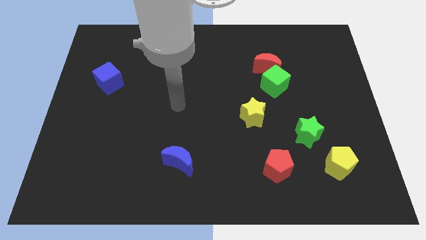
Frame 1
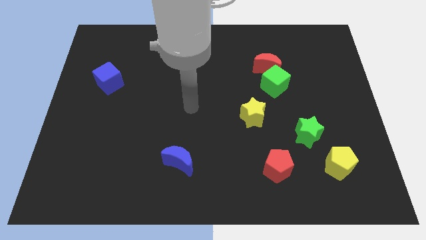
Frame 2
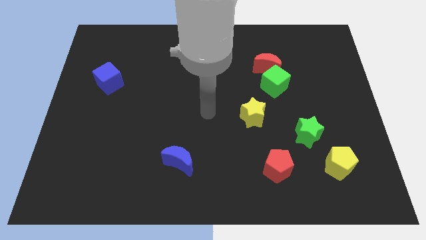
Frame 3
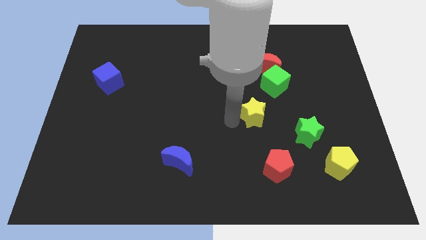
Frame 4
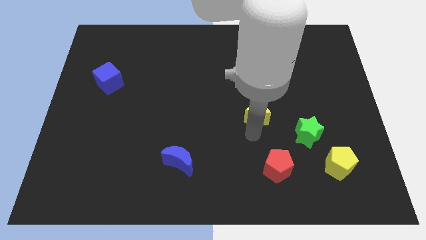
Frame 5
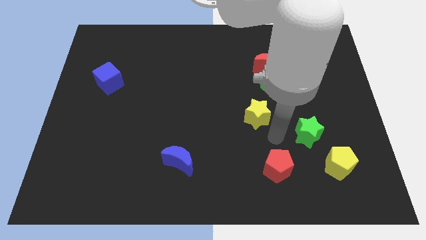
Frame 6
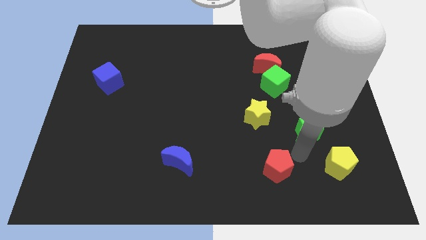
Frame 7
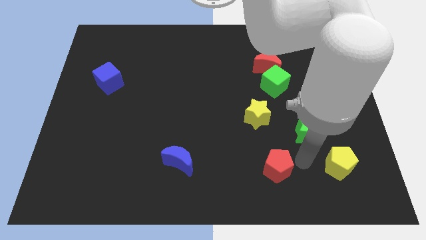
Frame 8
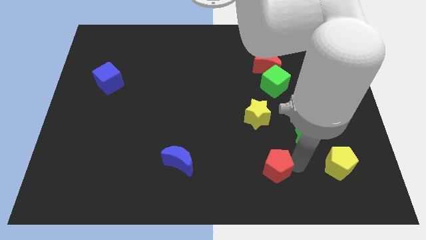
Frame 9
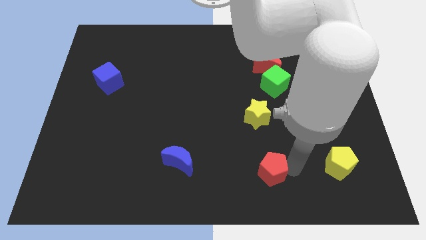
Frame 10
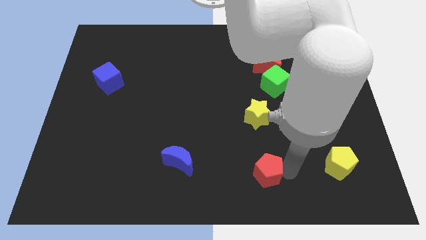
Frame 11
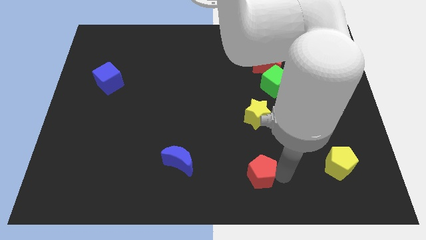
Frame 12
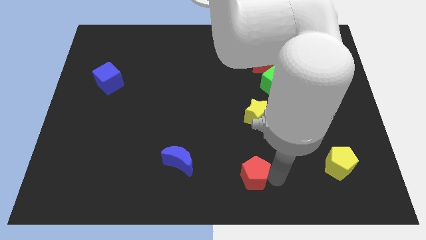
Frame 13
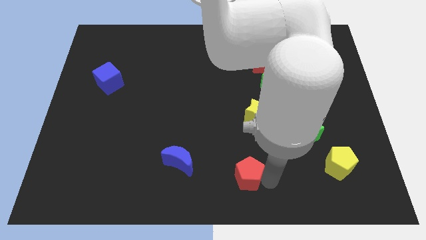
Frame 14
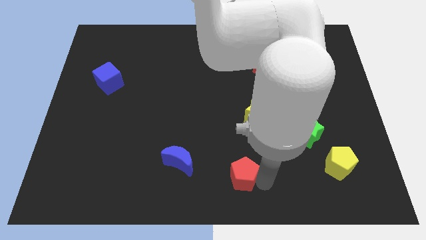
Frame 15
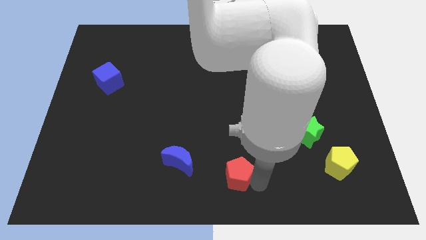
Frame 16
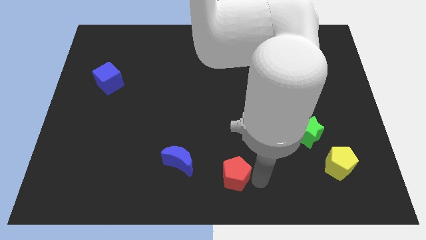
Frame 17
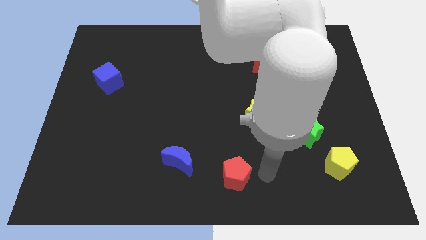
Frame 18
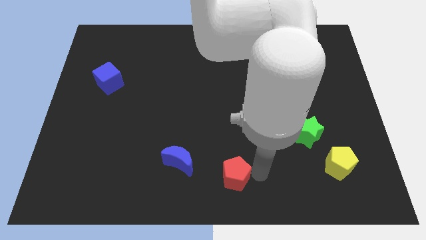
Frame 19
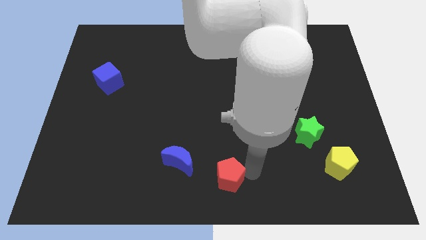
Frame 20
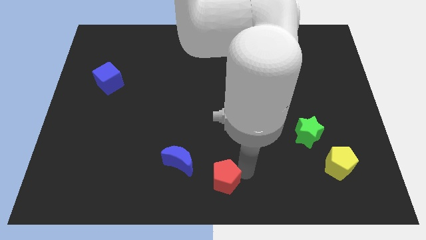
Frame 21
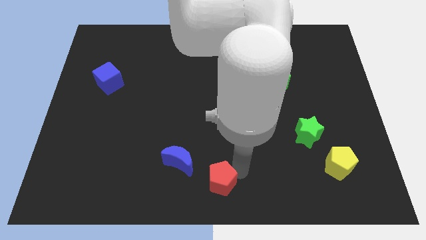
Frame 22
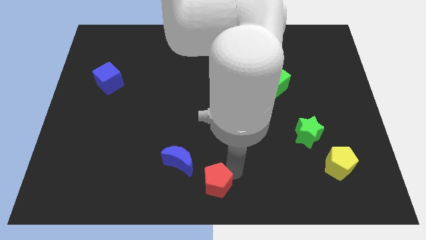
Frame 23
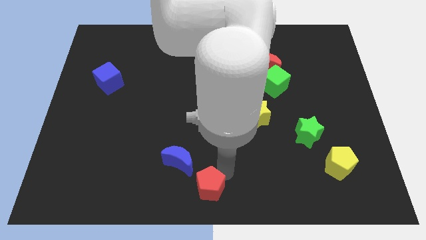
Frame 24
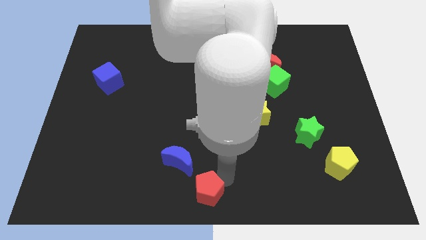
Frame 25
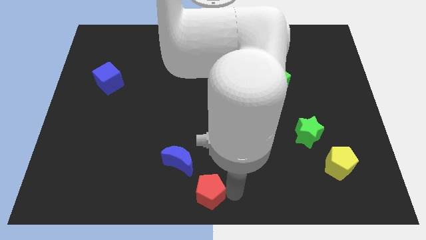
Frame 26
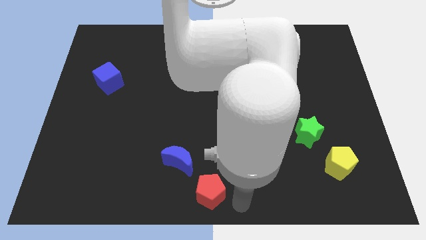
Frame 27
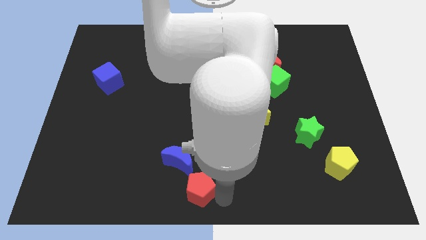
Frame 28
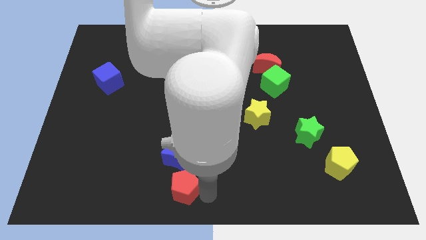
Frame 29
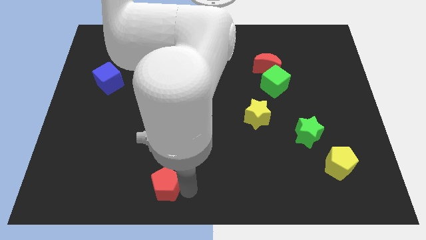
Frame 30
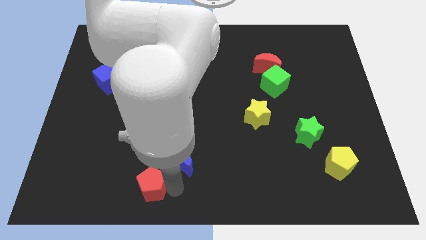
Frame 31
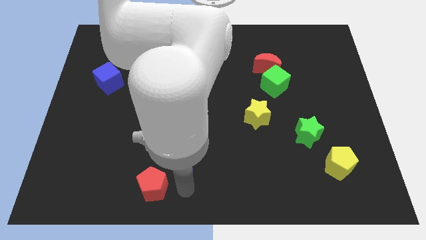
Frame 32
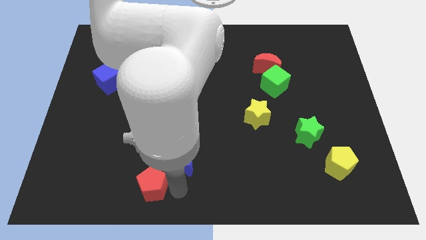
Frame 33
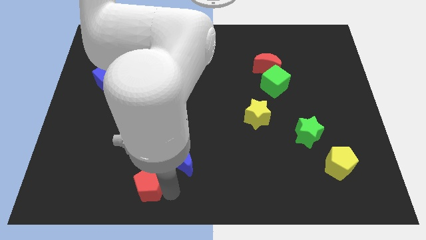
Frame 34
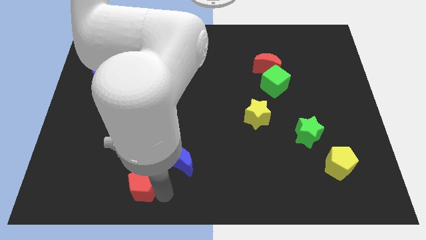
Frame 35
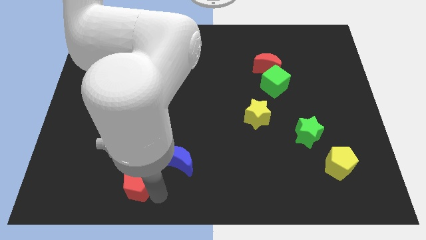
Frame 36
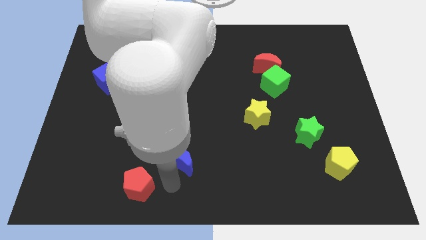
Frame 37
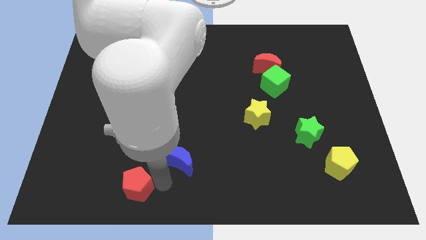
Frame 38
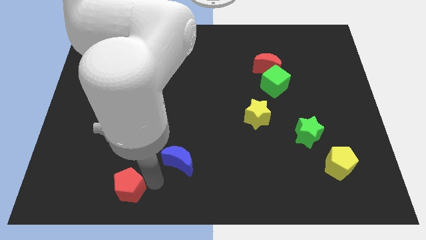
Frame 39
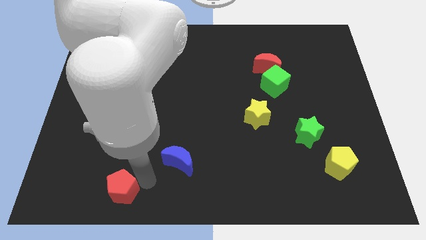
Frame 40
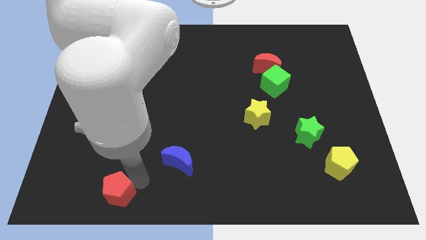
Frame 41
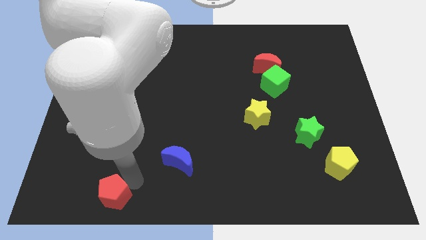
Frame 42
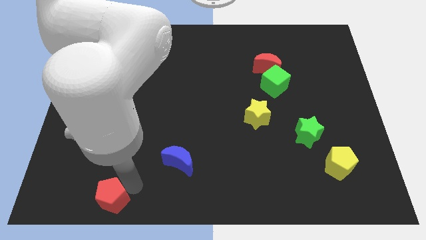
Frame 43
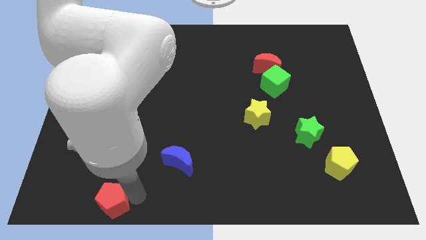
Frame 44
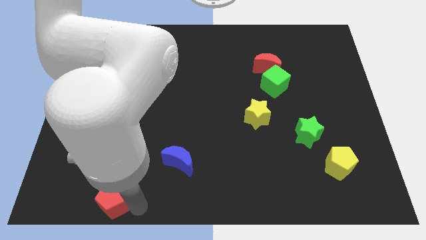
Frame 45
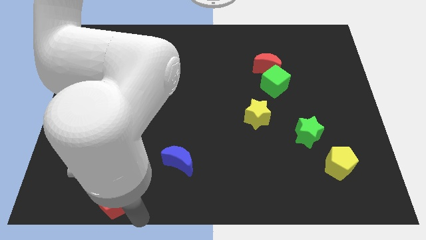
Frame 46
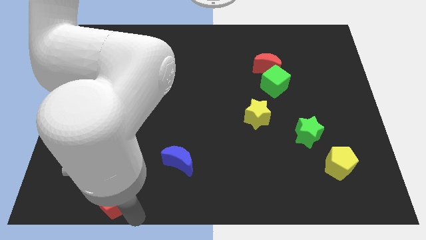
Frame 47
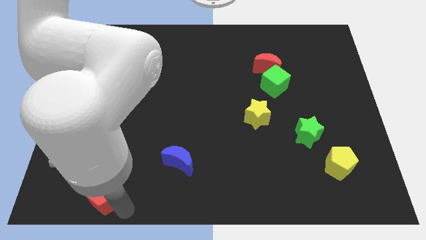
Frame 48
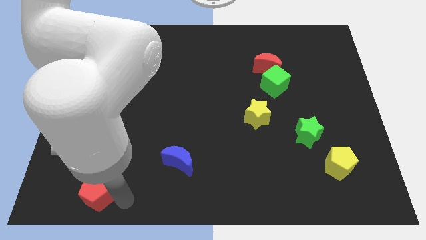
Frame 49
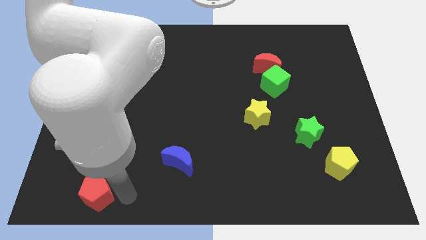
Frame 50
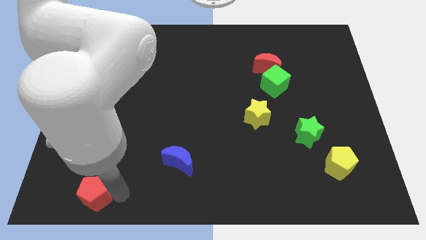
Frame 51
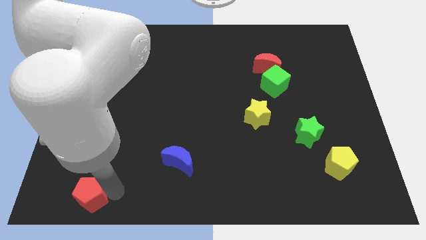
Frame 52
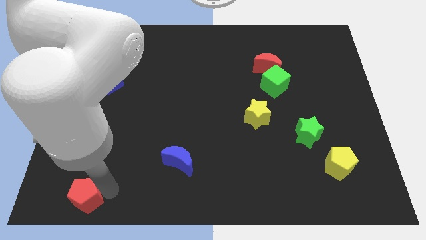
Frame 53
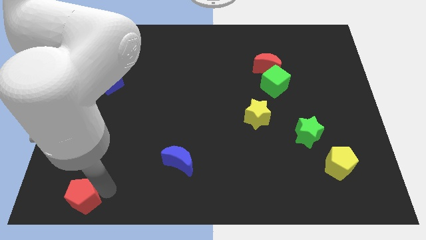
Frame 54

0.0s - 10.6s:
push the red pentagon to the bottom left

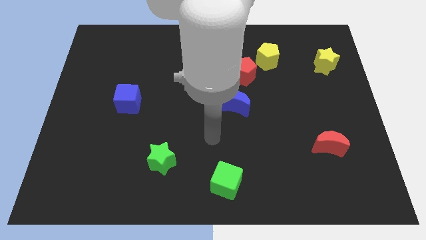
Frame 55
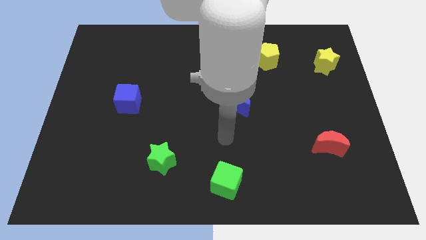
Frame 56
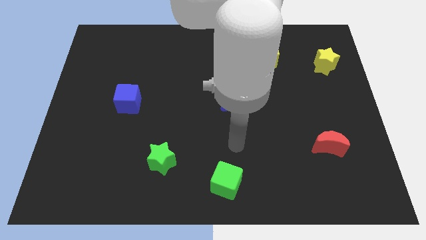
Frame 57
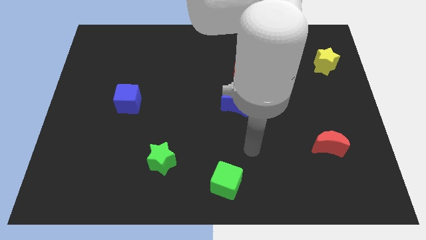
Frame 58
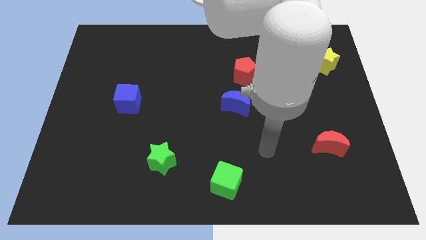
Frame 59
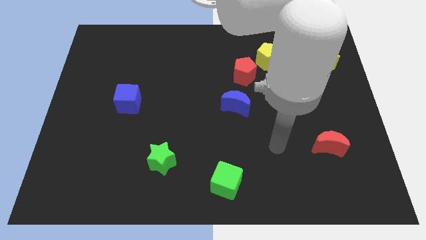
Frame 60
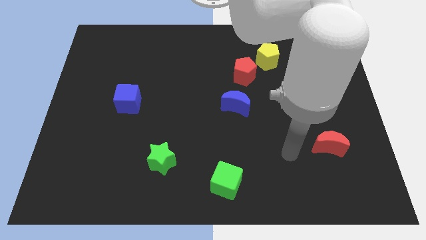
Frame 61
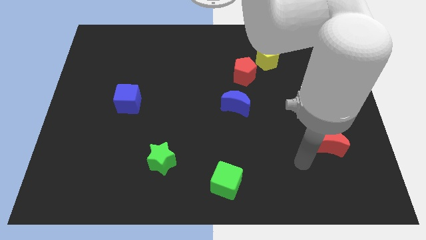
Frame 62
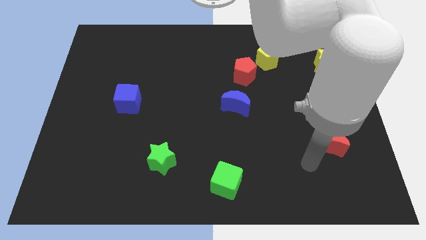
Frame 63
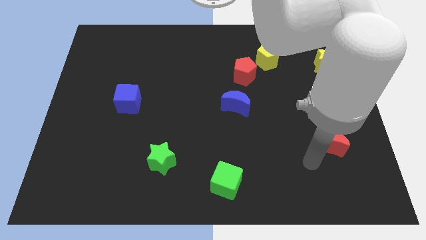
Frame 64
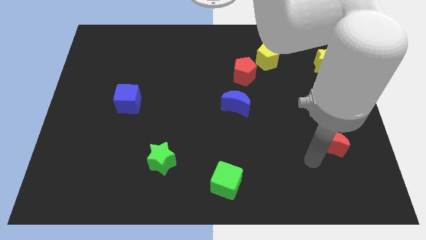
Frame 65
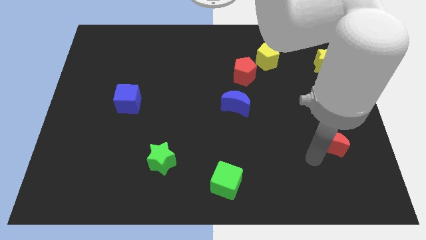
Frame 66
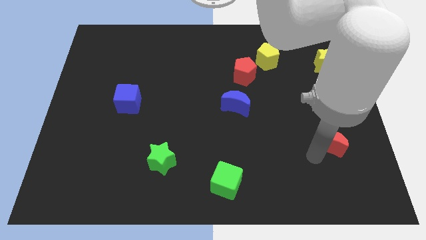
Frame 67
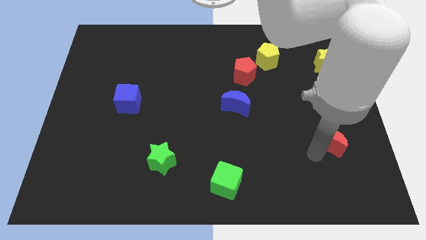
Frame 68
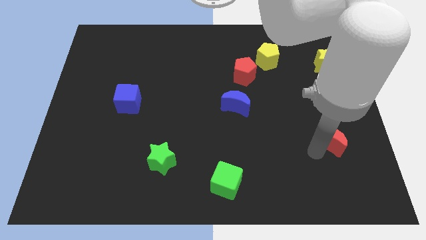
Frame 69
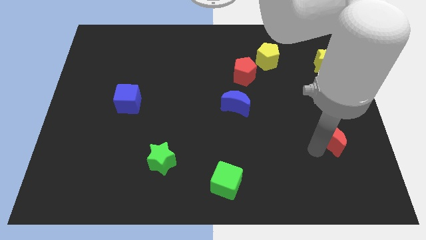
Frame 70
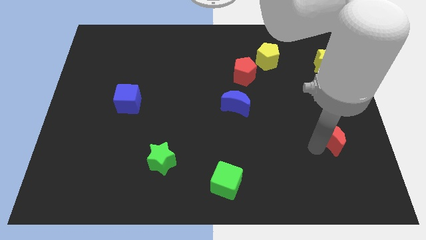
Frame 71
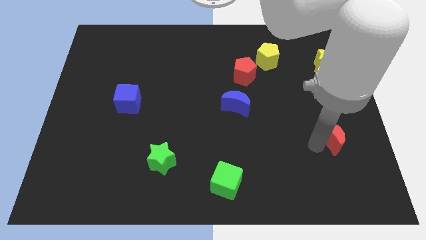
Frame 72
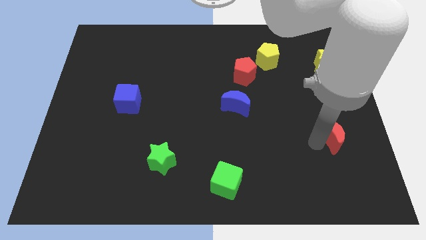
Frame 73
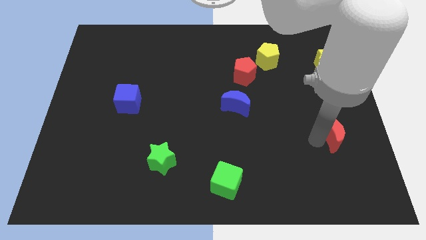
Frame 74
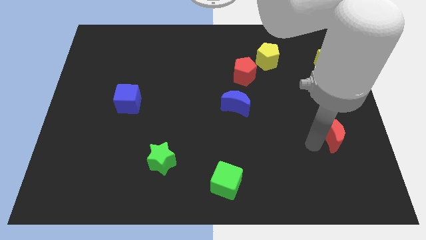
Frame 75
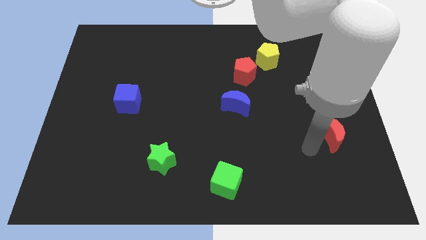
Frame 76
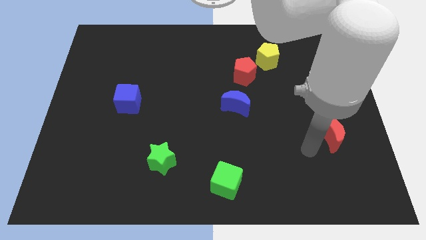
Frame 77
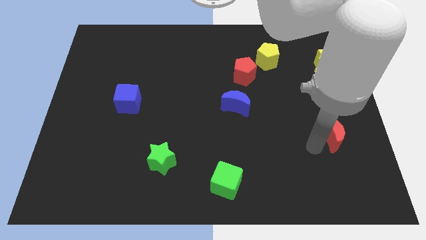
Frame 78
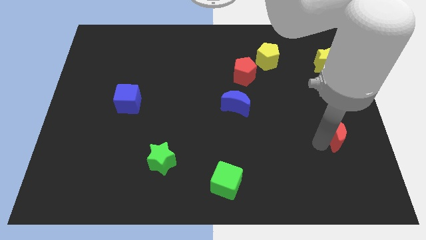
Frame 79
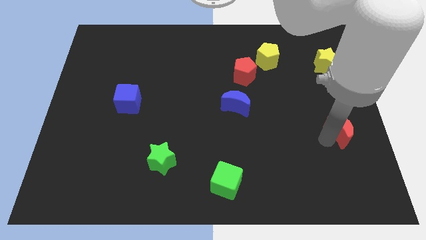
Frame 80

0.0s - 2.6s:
put the red moon to the right side of the board
